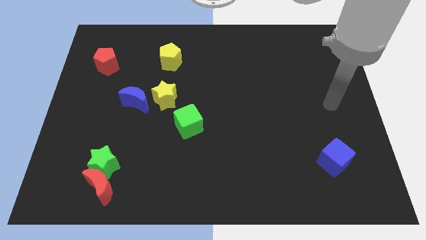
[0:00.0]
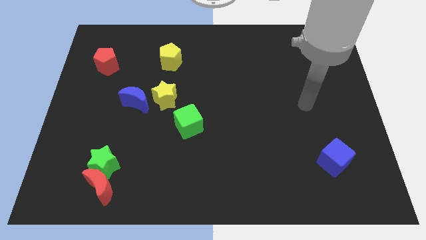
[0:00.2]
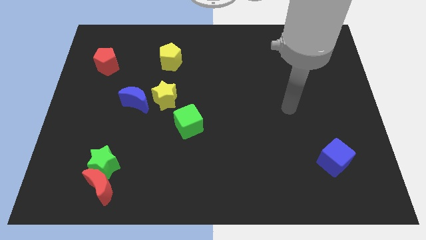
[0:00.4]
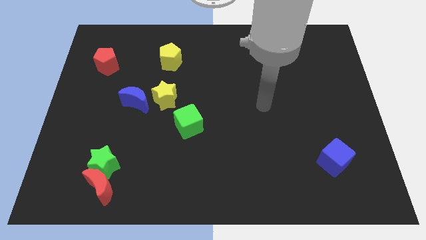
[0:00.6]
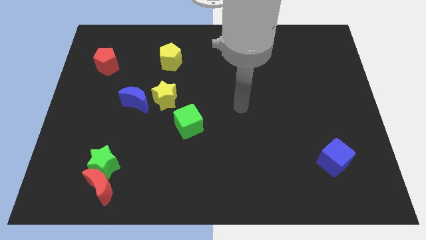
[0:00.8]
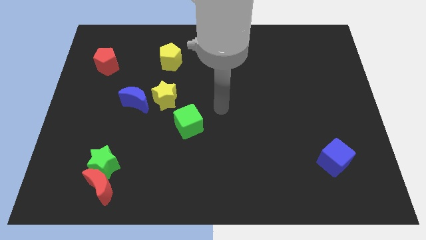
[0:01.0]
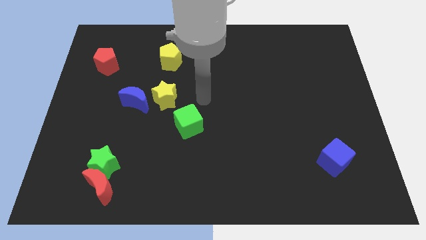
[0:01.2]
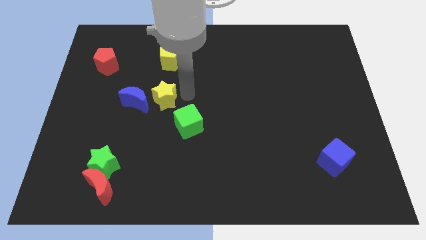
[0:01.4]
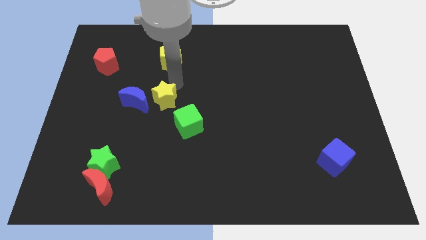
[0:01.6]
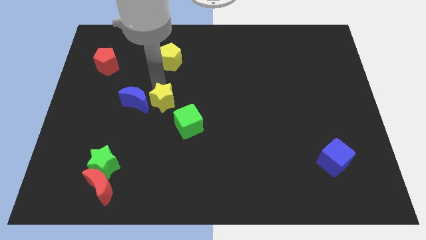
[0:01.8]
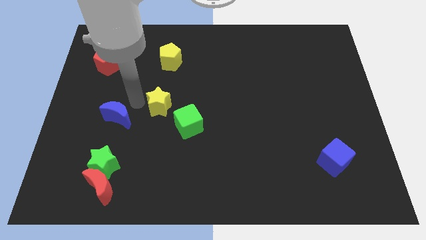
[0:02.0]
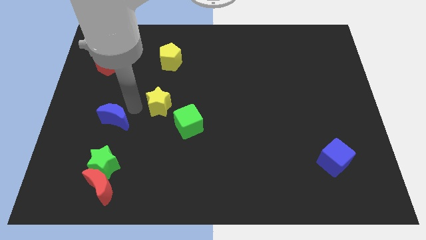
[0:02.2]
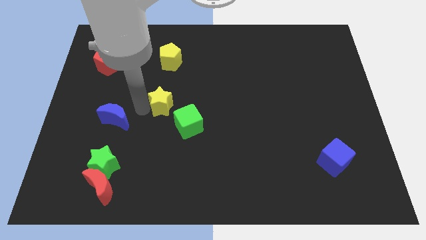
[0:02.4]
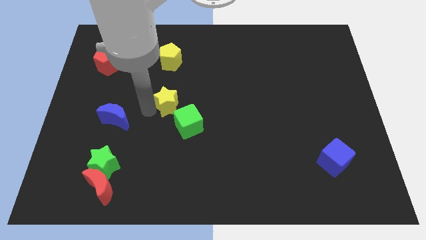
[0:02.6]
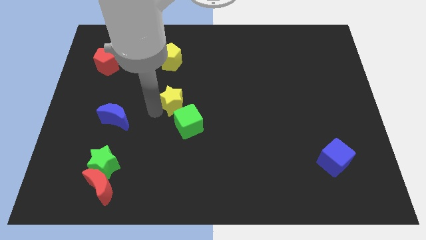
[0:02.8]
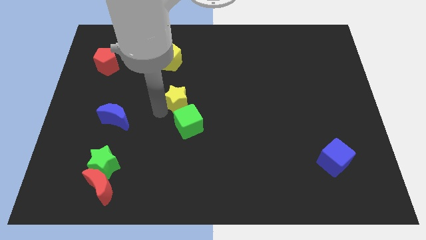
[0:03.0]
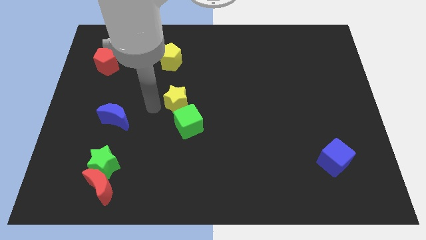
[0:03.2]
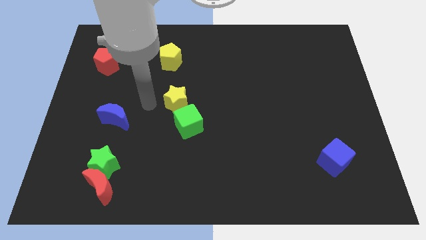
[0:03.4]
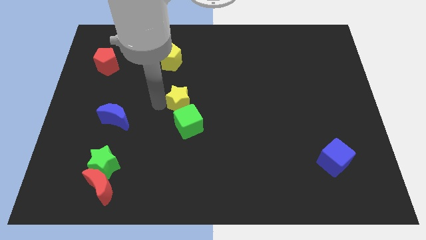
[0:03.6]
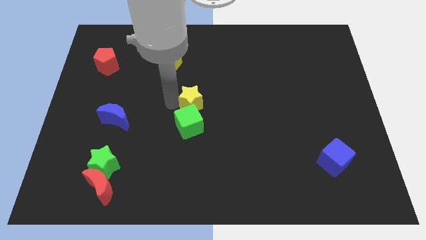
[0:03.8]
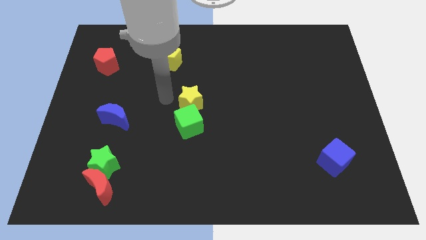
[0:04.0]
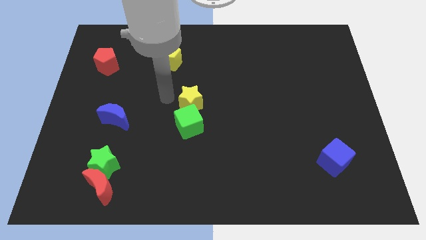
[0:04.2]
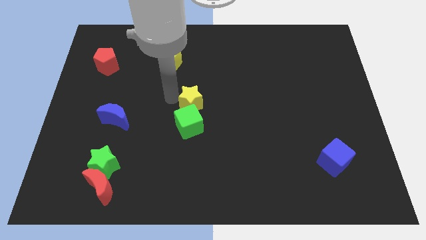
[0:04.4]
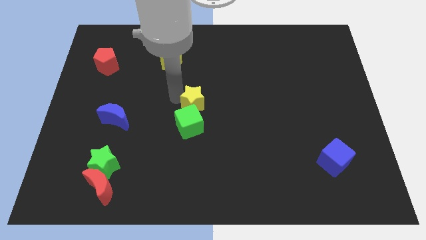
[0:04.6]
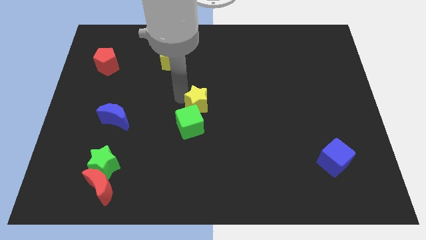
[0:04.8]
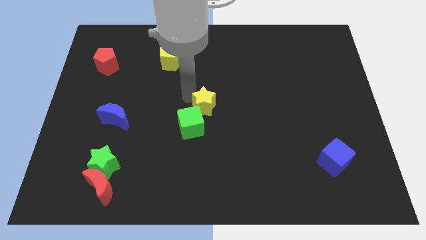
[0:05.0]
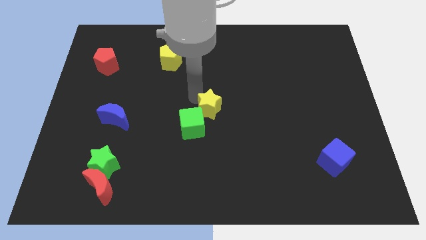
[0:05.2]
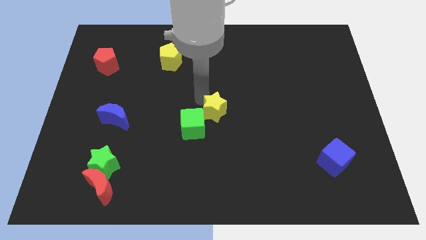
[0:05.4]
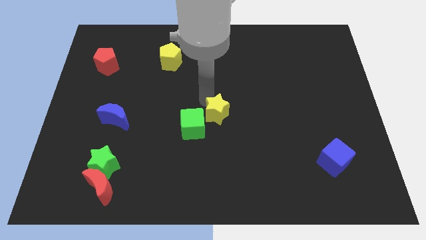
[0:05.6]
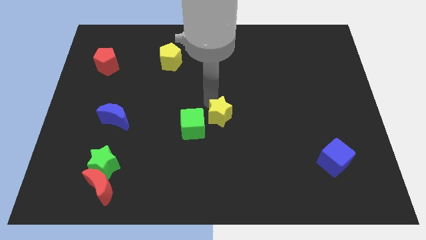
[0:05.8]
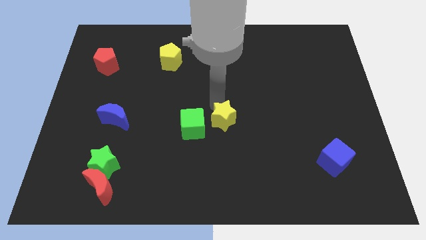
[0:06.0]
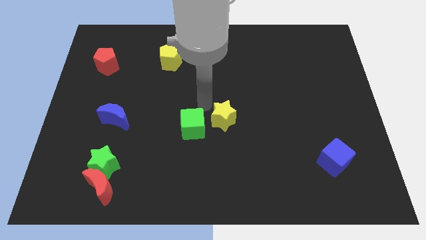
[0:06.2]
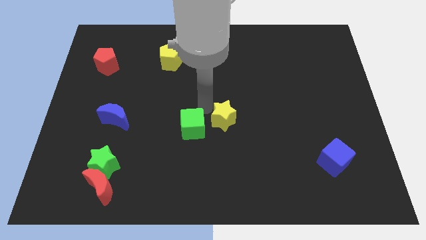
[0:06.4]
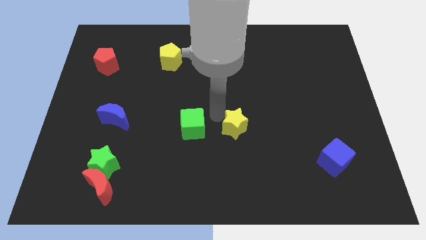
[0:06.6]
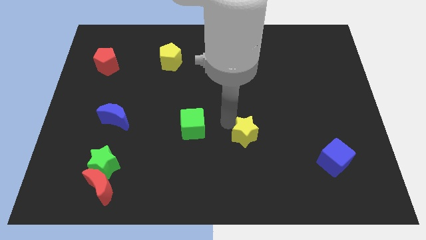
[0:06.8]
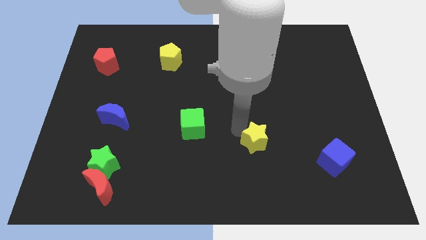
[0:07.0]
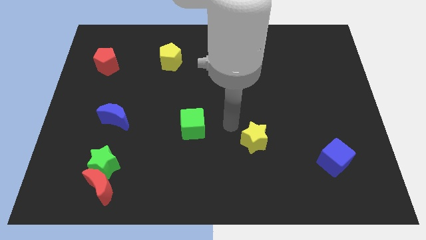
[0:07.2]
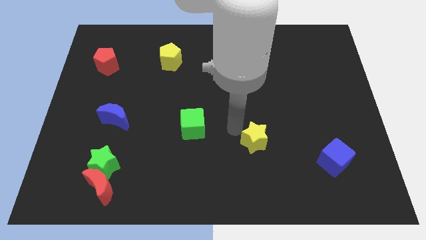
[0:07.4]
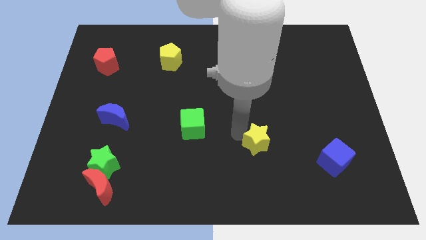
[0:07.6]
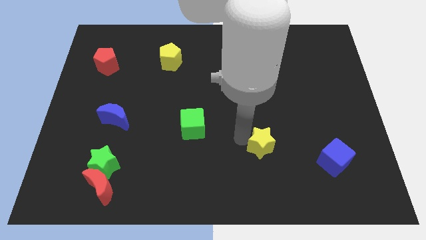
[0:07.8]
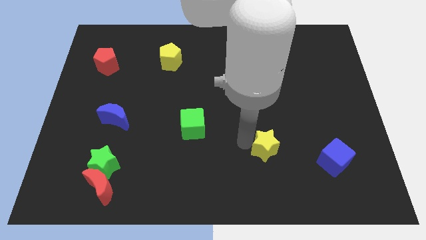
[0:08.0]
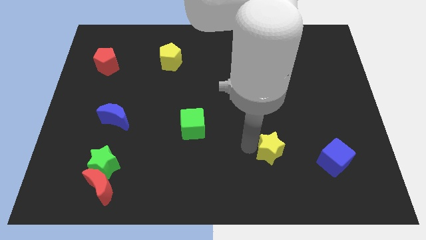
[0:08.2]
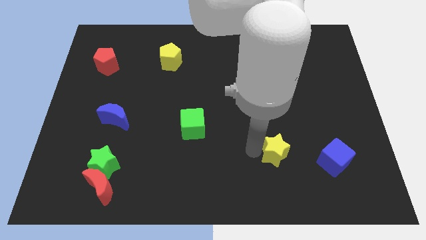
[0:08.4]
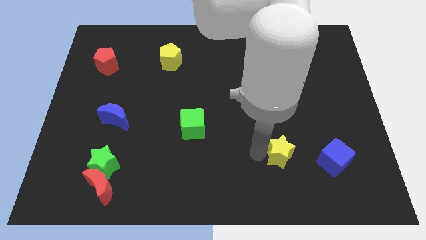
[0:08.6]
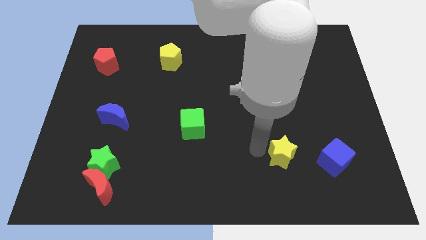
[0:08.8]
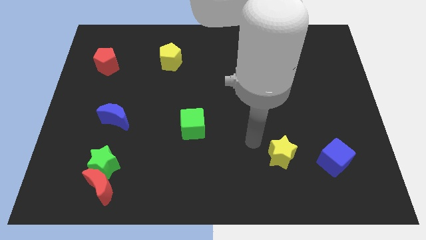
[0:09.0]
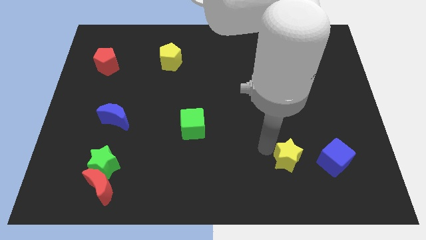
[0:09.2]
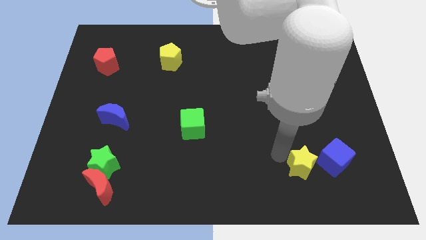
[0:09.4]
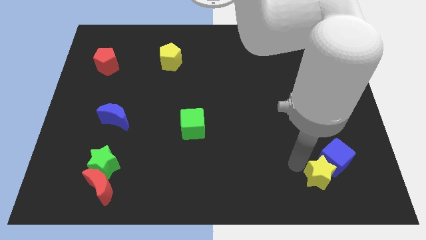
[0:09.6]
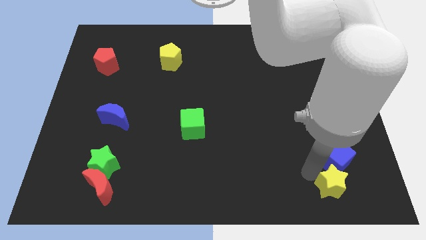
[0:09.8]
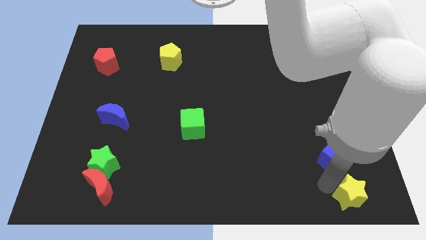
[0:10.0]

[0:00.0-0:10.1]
slide the yellow star to the bottom right of the board

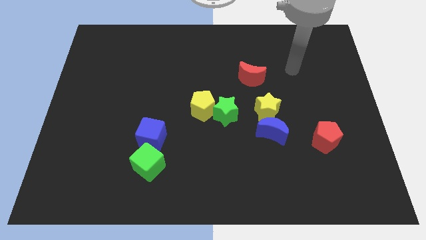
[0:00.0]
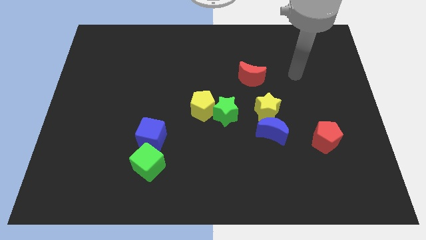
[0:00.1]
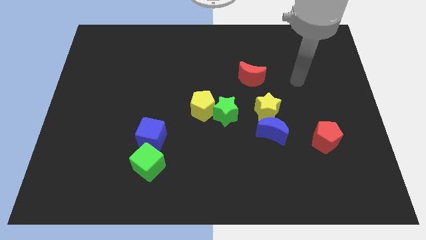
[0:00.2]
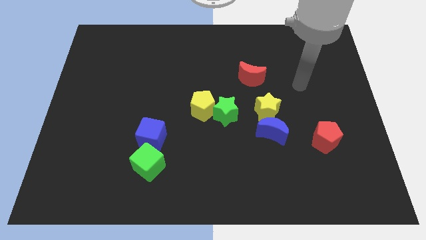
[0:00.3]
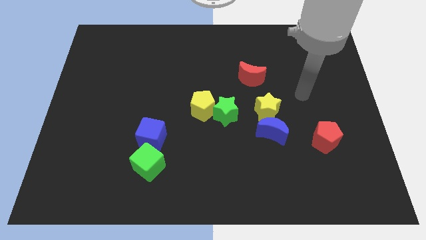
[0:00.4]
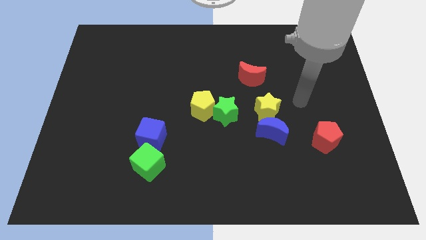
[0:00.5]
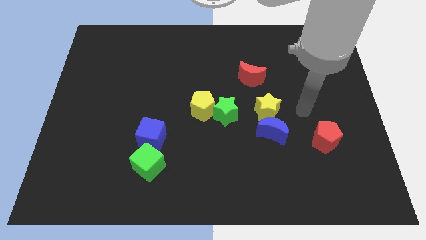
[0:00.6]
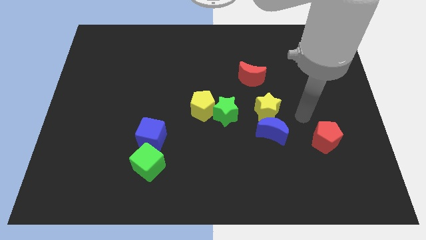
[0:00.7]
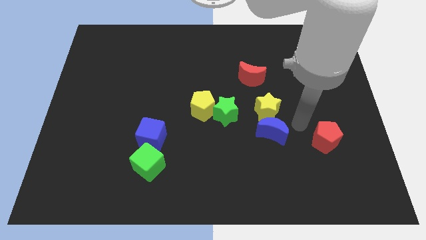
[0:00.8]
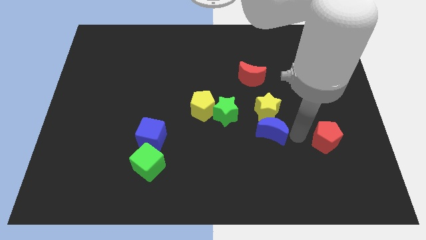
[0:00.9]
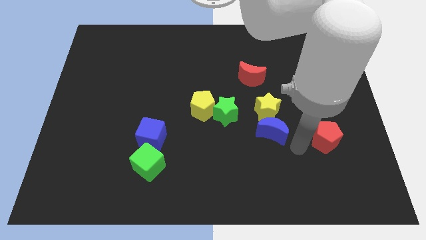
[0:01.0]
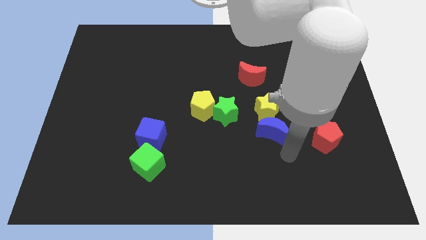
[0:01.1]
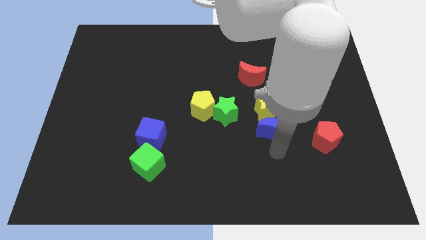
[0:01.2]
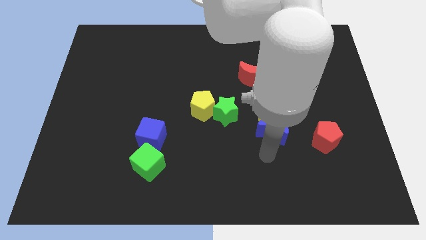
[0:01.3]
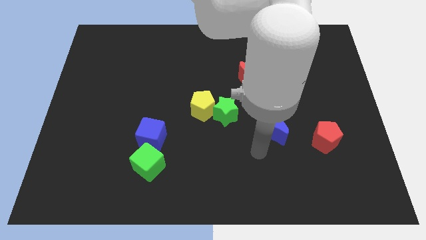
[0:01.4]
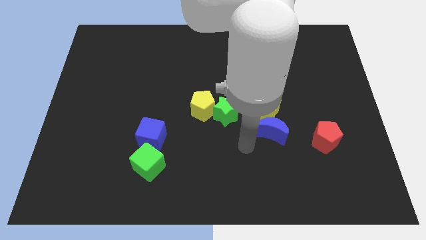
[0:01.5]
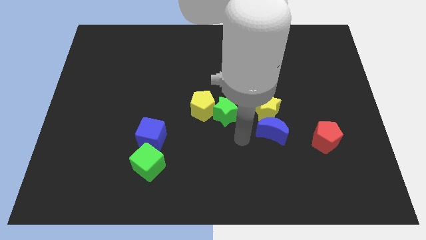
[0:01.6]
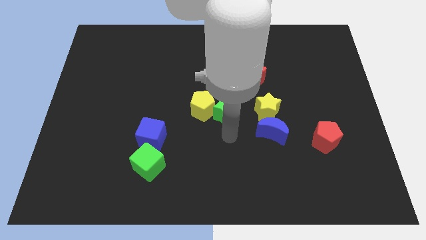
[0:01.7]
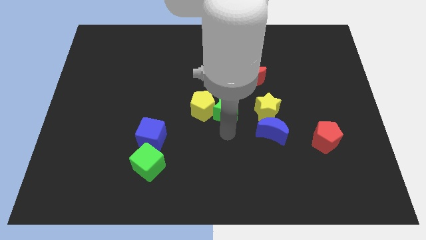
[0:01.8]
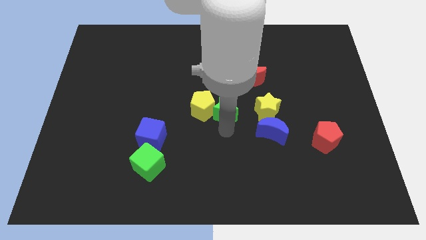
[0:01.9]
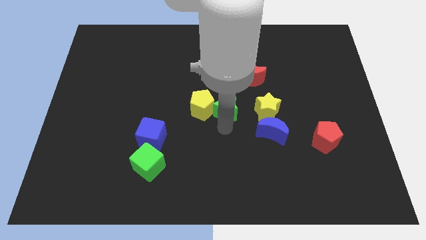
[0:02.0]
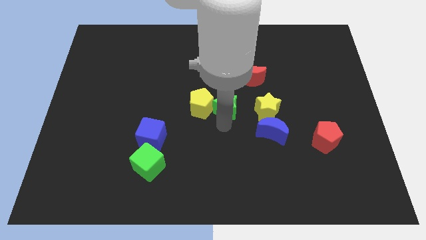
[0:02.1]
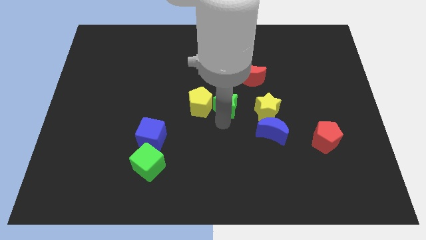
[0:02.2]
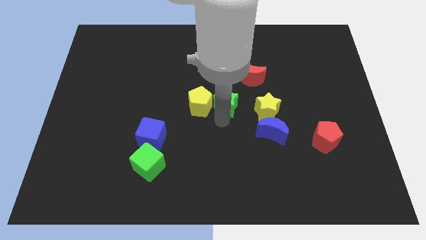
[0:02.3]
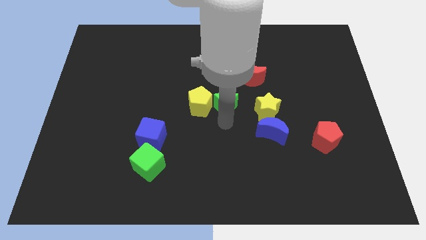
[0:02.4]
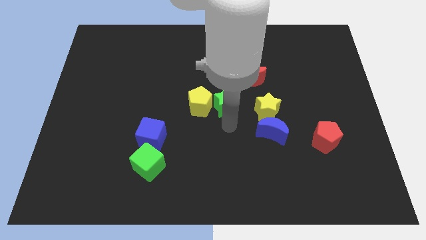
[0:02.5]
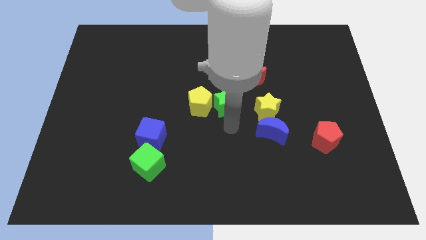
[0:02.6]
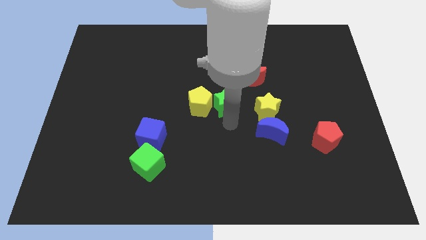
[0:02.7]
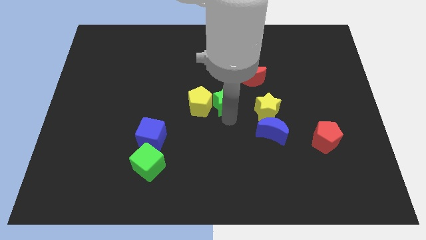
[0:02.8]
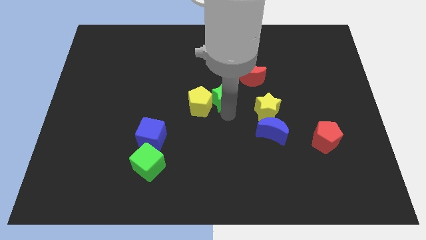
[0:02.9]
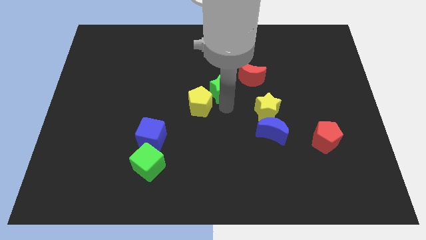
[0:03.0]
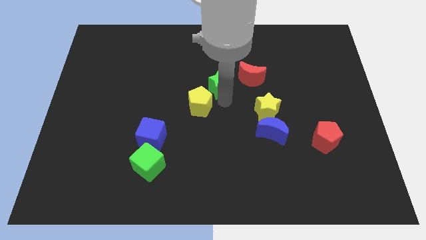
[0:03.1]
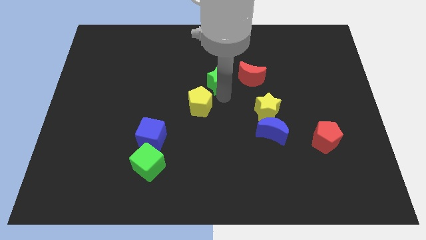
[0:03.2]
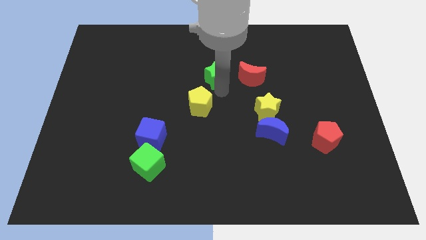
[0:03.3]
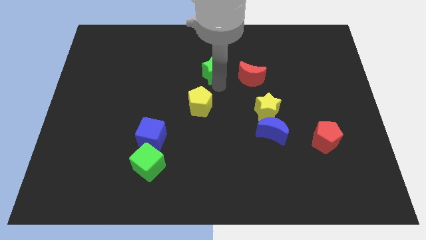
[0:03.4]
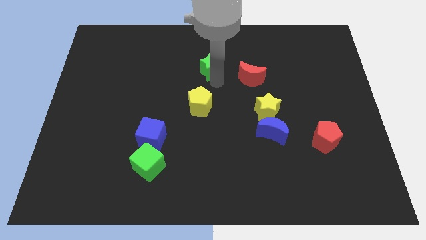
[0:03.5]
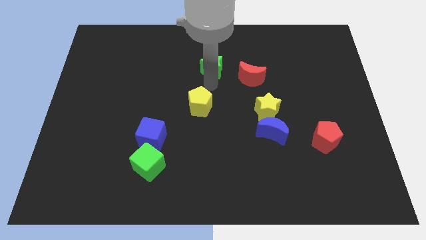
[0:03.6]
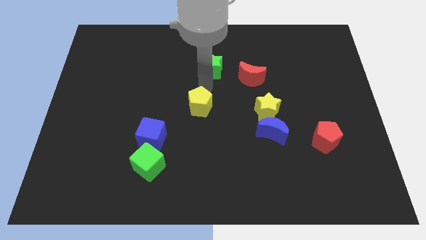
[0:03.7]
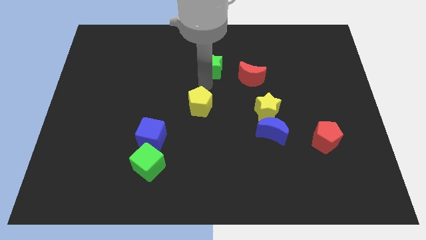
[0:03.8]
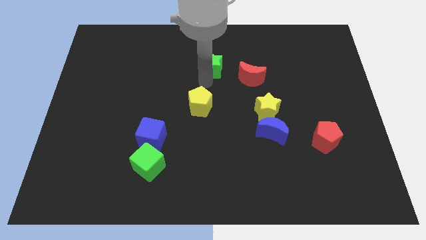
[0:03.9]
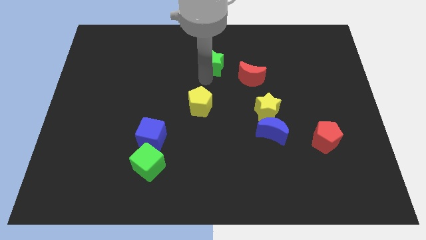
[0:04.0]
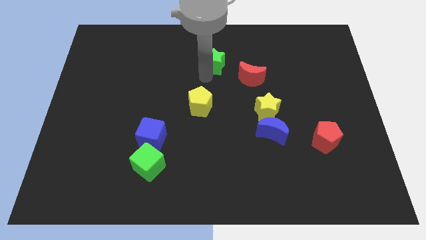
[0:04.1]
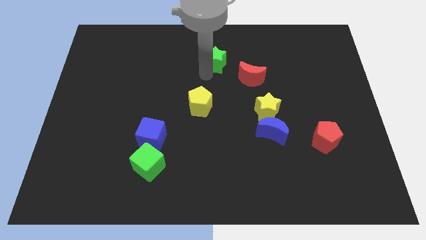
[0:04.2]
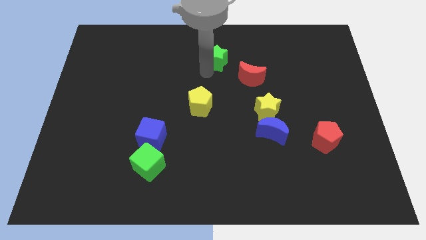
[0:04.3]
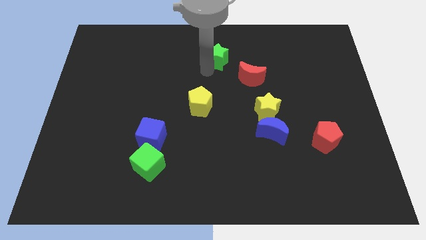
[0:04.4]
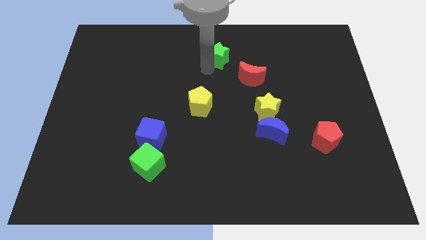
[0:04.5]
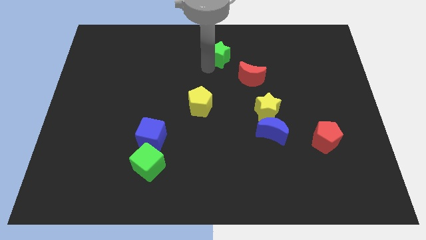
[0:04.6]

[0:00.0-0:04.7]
put the green star to the top
